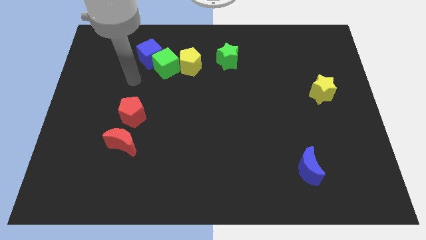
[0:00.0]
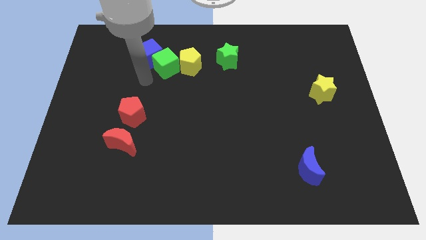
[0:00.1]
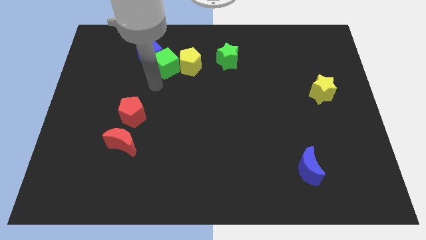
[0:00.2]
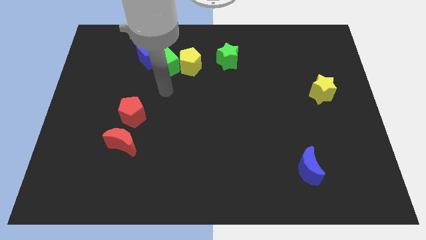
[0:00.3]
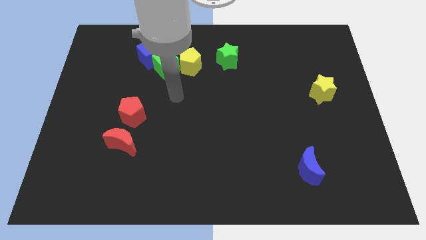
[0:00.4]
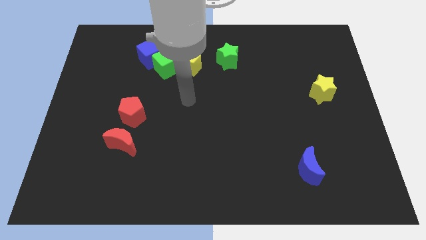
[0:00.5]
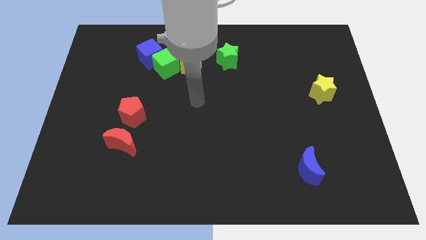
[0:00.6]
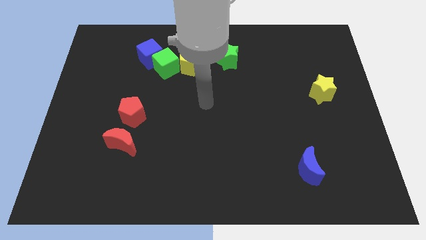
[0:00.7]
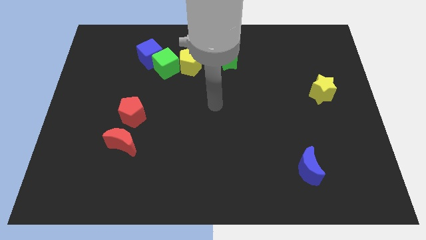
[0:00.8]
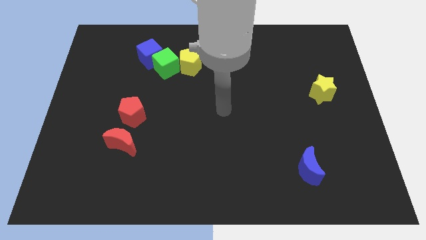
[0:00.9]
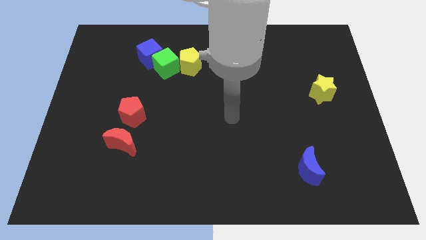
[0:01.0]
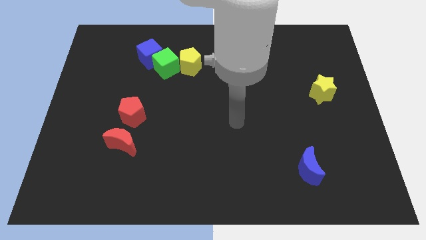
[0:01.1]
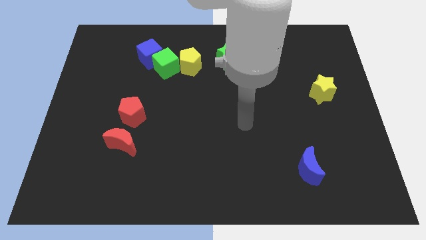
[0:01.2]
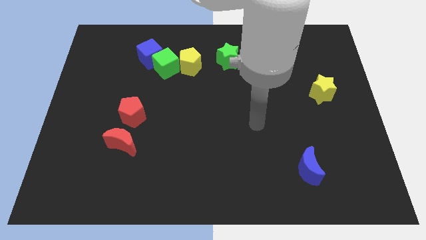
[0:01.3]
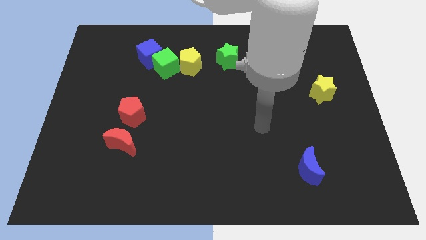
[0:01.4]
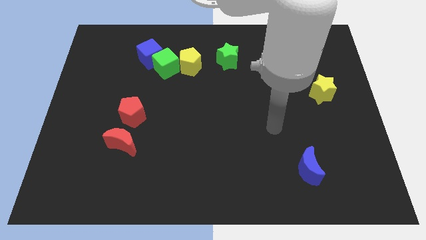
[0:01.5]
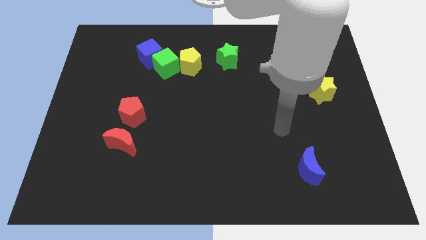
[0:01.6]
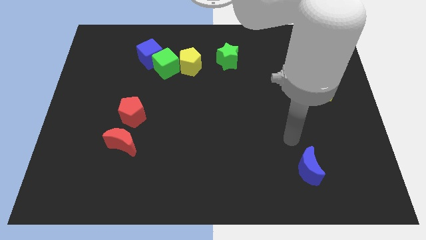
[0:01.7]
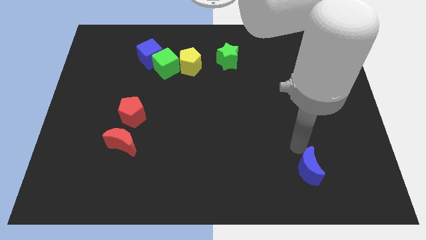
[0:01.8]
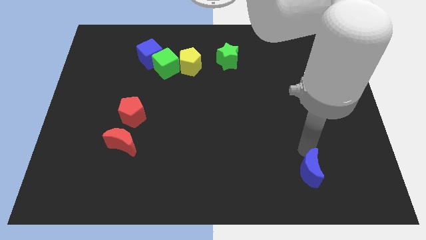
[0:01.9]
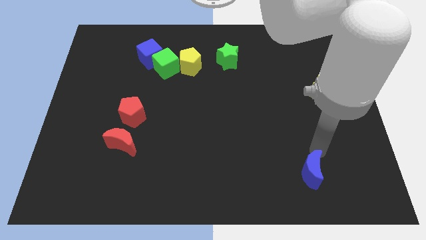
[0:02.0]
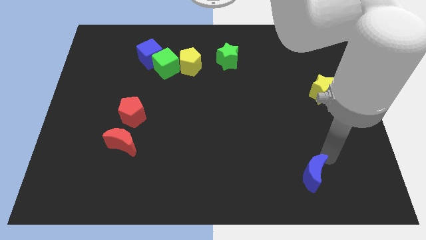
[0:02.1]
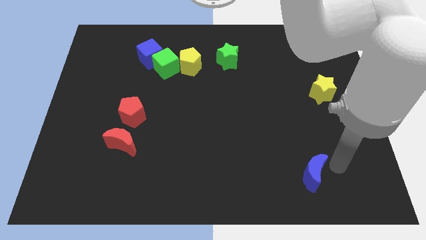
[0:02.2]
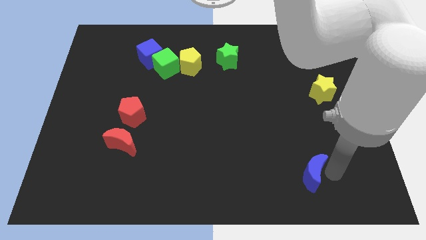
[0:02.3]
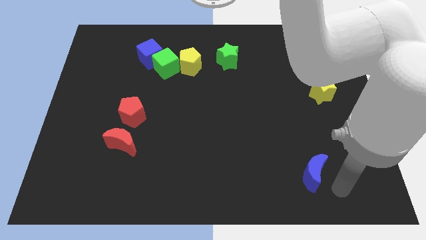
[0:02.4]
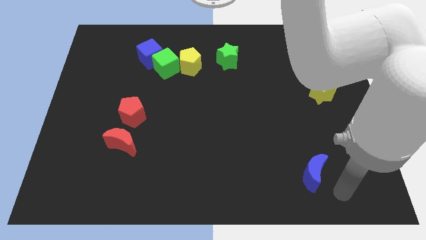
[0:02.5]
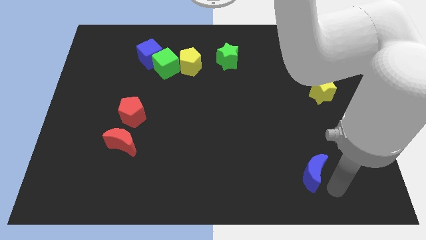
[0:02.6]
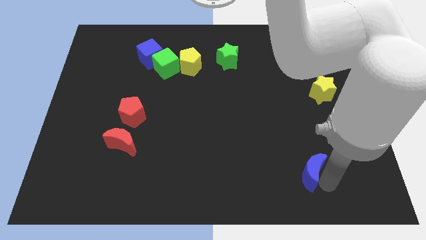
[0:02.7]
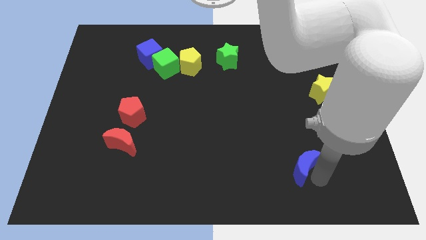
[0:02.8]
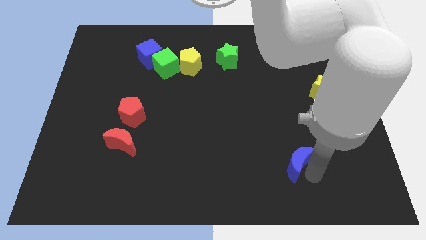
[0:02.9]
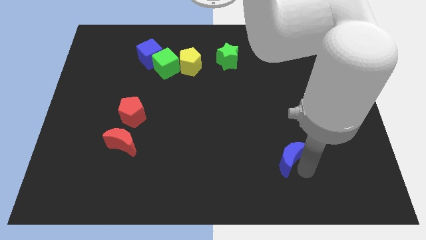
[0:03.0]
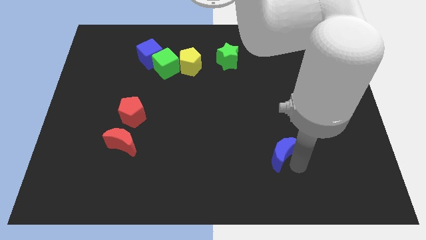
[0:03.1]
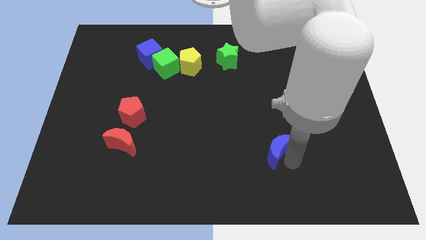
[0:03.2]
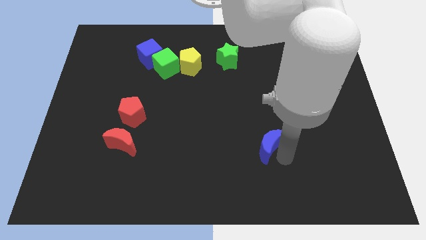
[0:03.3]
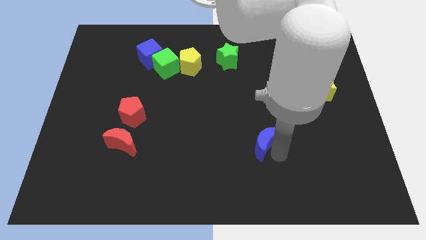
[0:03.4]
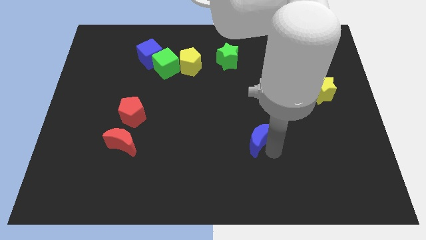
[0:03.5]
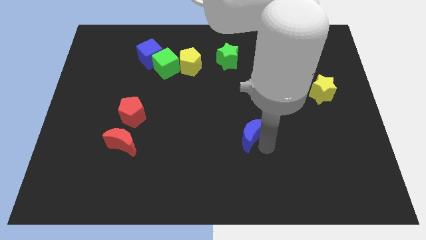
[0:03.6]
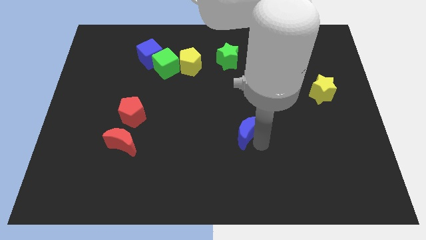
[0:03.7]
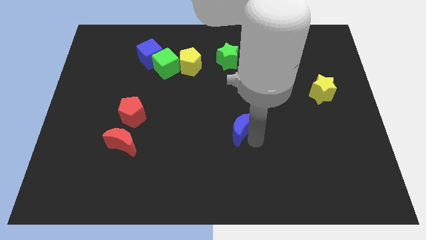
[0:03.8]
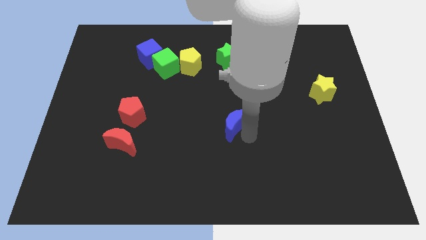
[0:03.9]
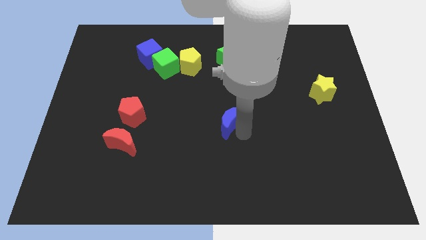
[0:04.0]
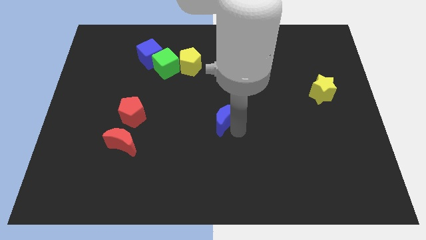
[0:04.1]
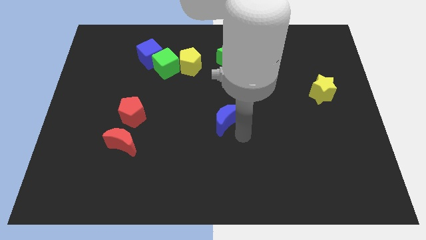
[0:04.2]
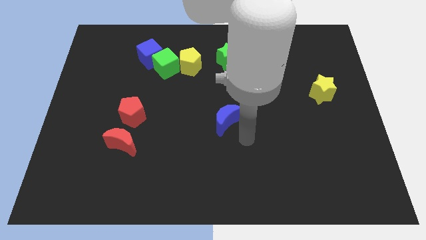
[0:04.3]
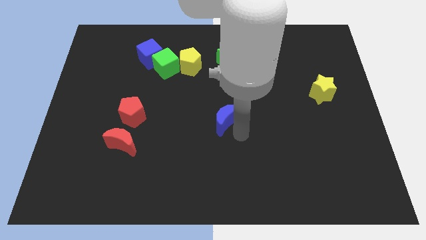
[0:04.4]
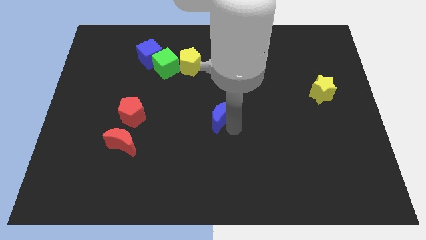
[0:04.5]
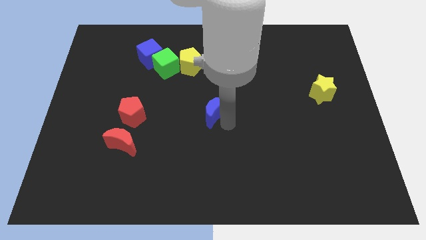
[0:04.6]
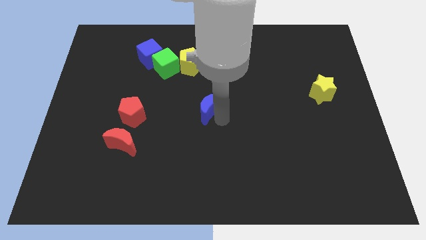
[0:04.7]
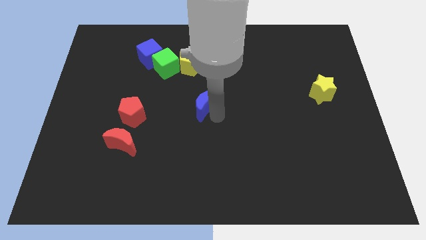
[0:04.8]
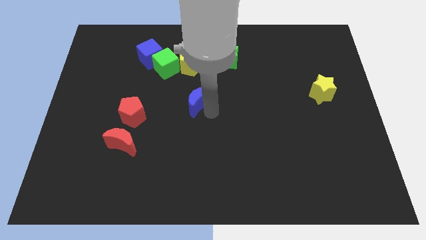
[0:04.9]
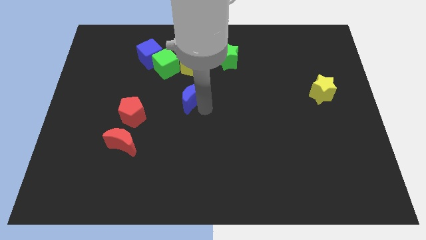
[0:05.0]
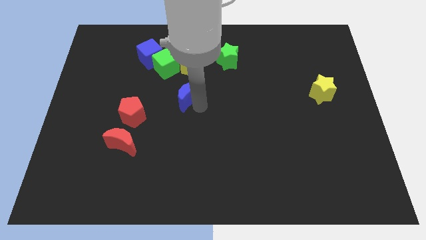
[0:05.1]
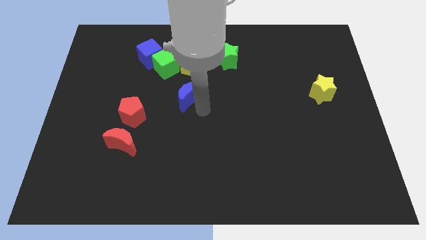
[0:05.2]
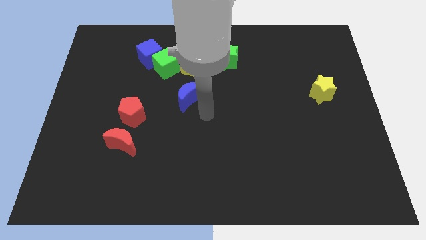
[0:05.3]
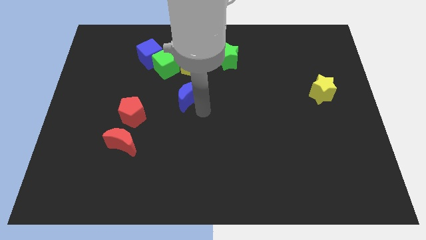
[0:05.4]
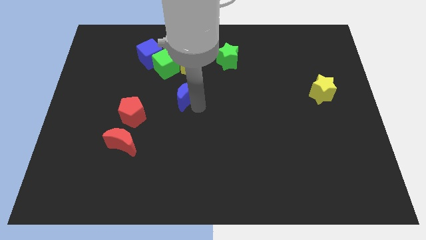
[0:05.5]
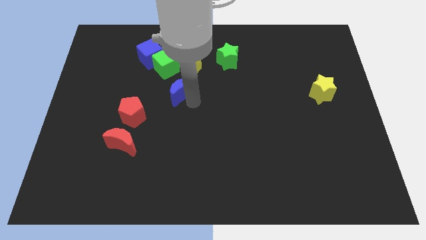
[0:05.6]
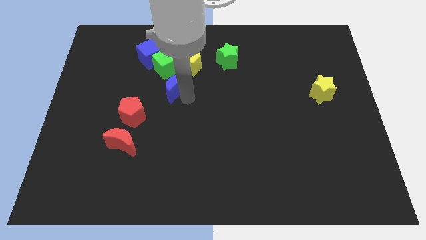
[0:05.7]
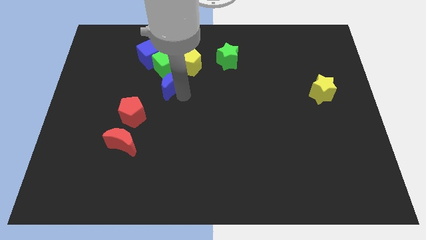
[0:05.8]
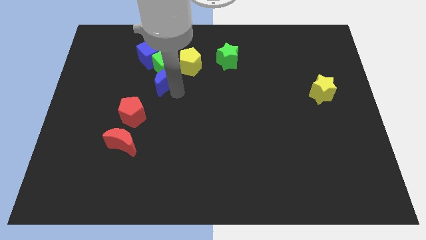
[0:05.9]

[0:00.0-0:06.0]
push the blue moon next to the green cube

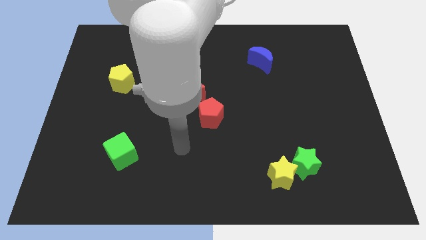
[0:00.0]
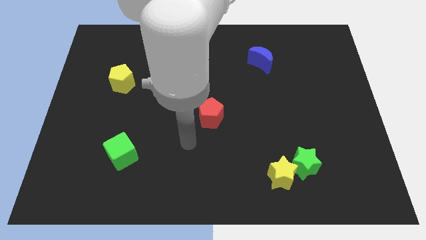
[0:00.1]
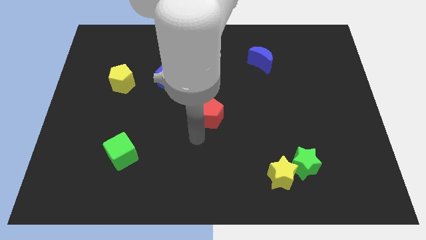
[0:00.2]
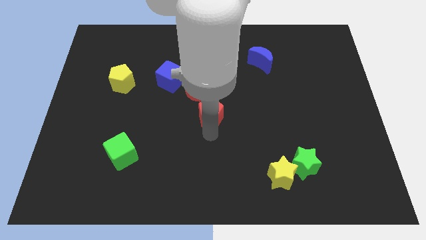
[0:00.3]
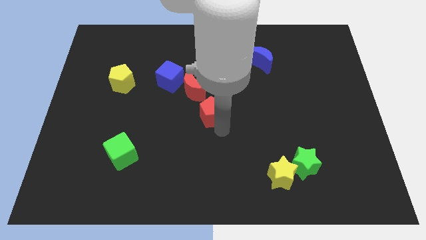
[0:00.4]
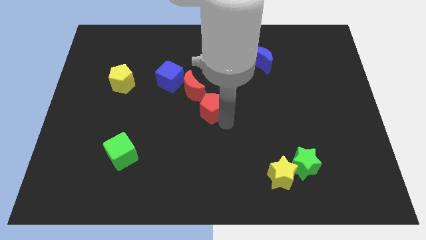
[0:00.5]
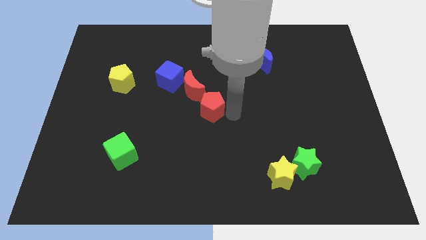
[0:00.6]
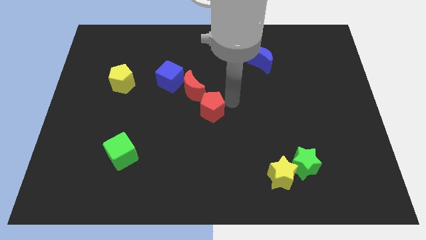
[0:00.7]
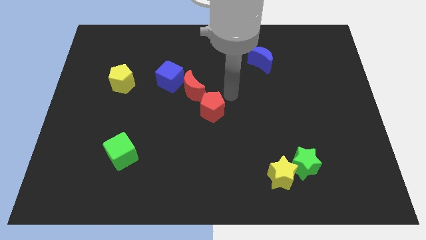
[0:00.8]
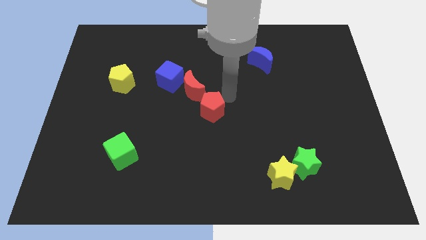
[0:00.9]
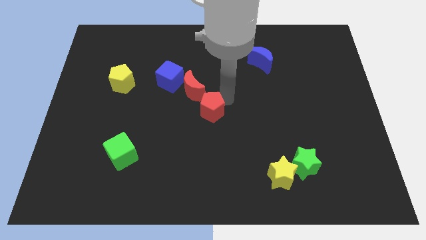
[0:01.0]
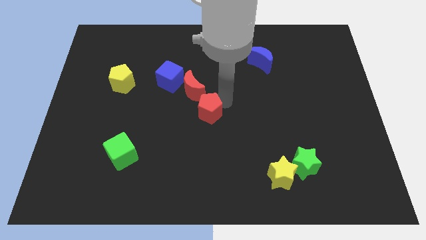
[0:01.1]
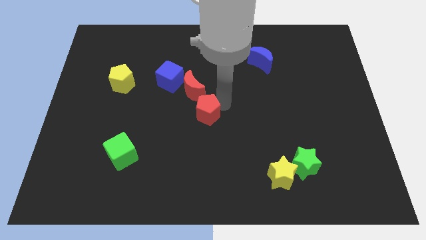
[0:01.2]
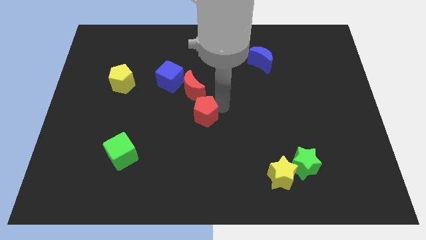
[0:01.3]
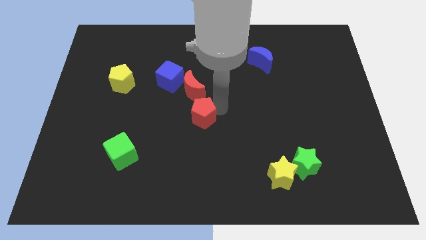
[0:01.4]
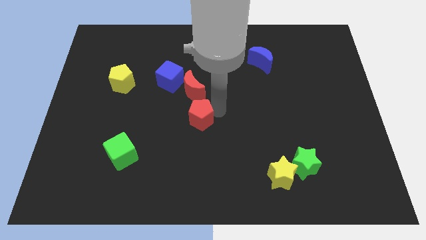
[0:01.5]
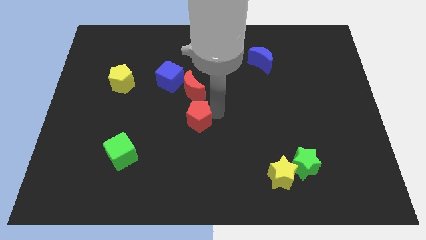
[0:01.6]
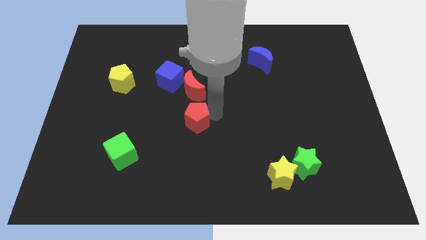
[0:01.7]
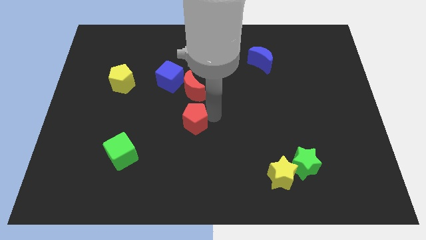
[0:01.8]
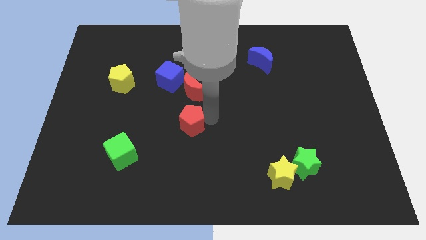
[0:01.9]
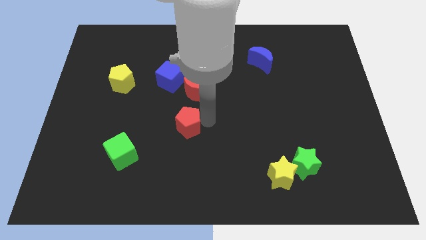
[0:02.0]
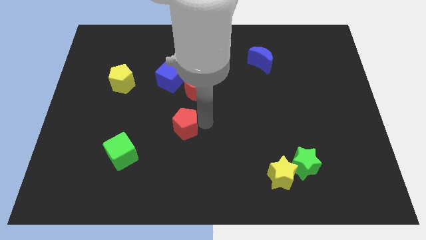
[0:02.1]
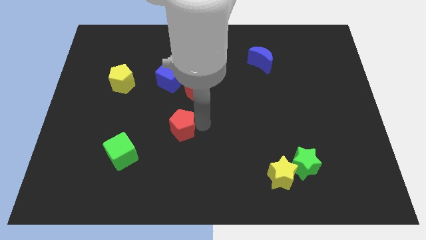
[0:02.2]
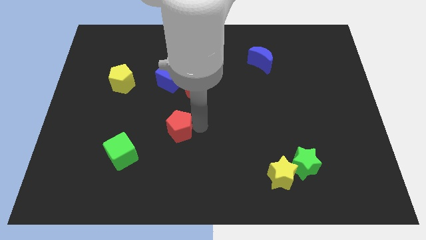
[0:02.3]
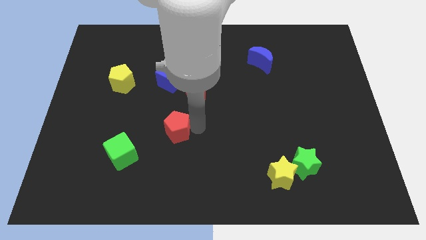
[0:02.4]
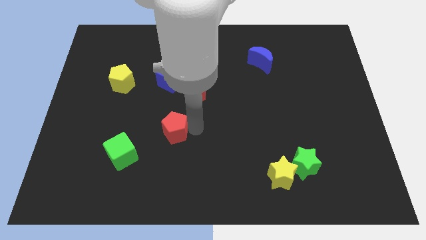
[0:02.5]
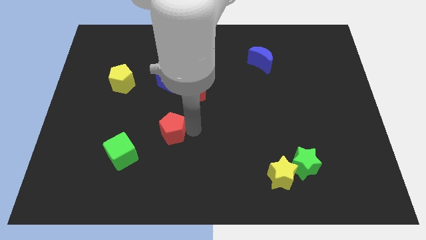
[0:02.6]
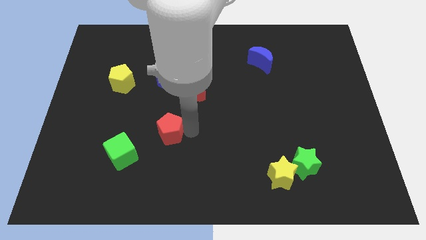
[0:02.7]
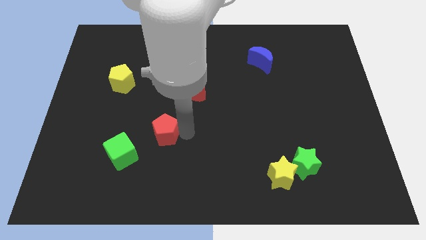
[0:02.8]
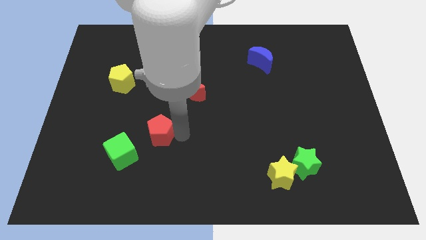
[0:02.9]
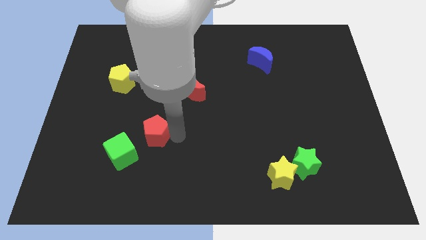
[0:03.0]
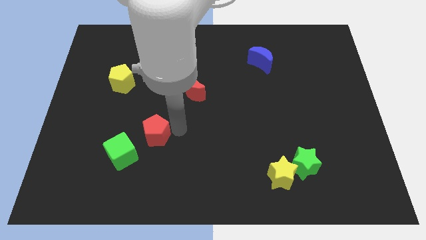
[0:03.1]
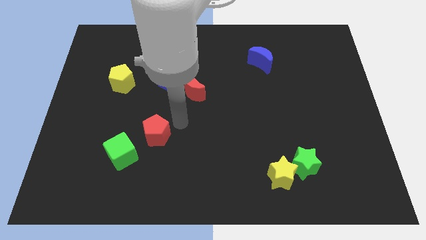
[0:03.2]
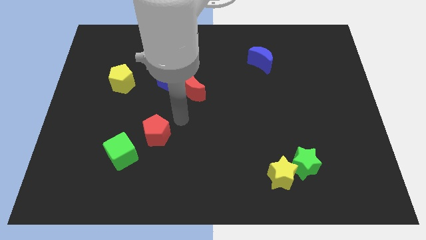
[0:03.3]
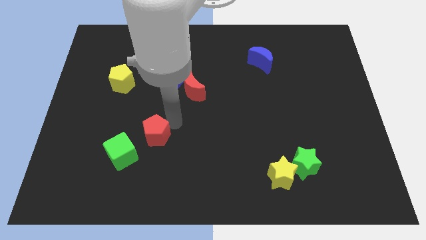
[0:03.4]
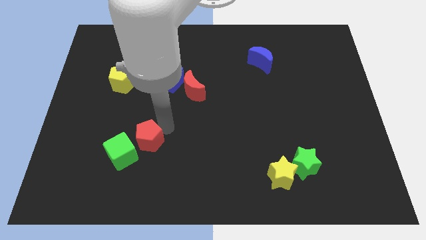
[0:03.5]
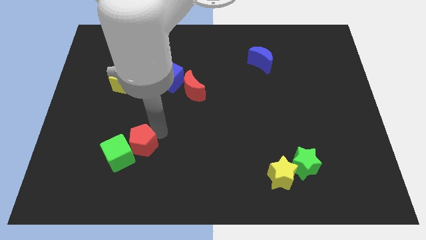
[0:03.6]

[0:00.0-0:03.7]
slide the red pentagon towards the green cube
